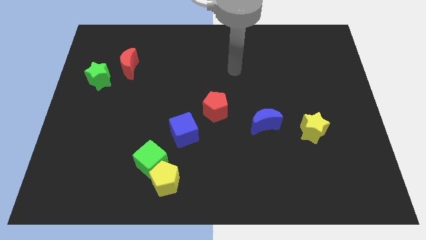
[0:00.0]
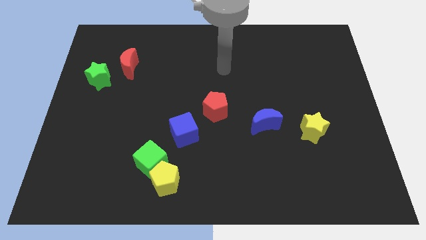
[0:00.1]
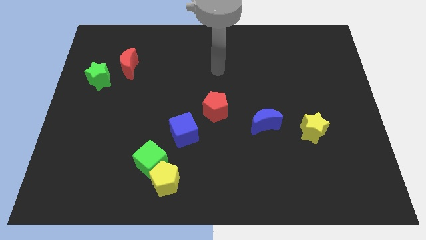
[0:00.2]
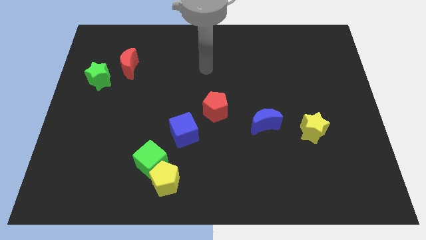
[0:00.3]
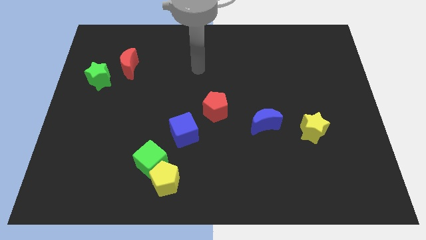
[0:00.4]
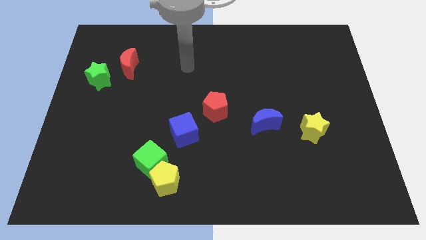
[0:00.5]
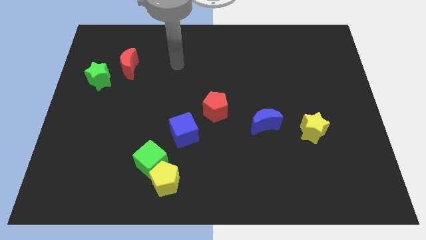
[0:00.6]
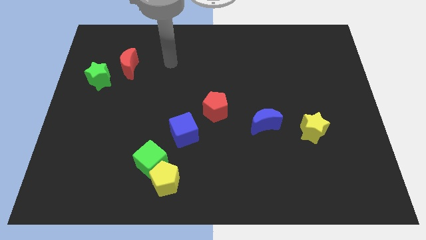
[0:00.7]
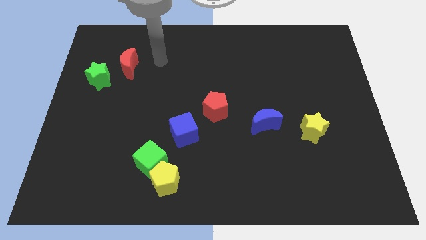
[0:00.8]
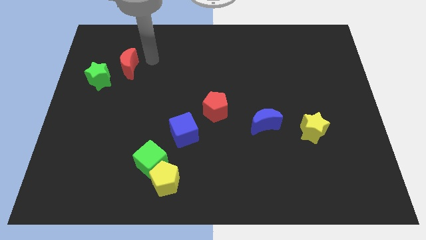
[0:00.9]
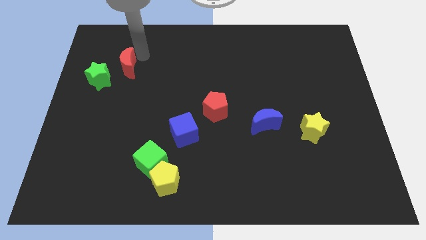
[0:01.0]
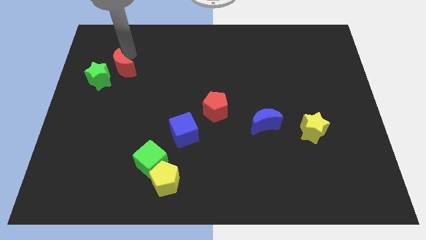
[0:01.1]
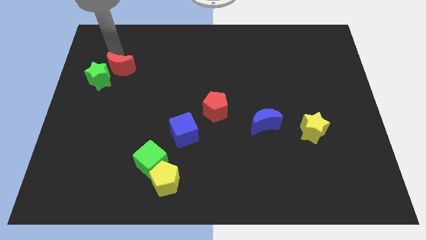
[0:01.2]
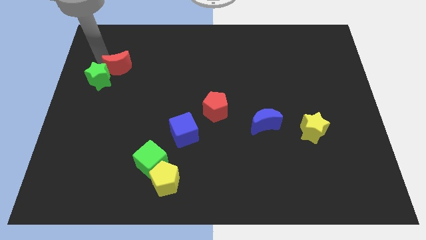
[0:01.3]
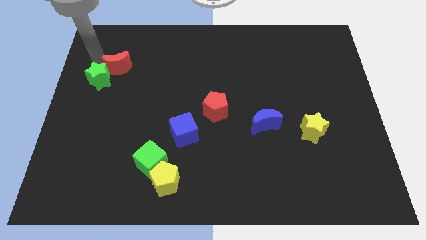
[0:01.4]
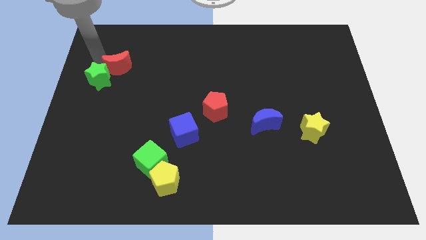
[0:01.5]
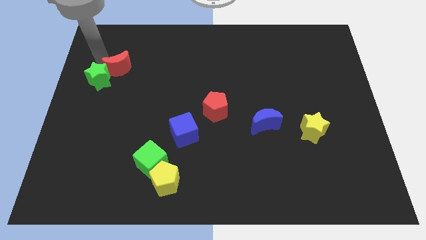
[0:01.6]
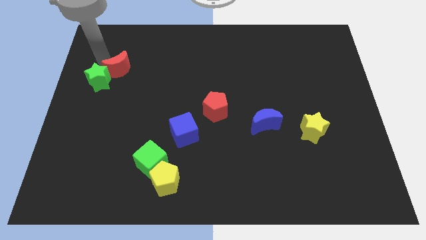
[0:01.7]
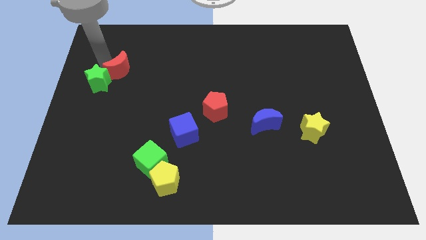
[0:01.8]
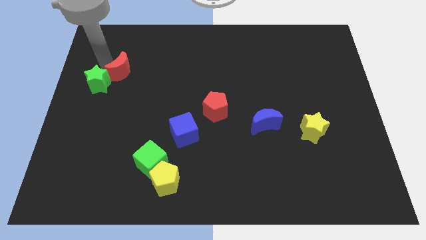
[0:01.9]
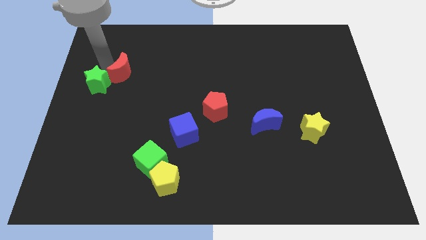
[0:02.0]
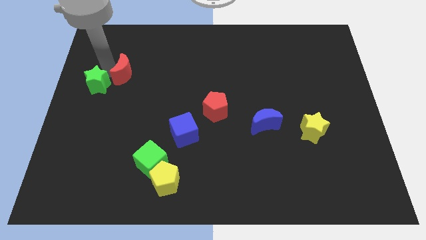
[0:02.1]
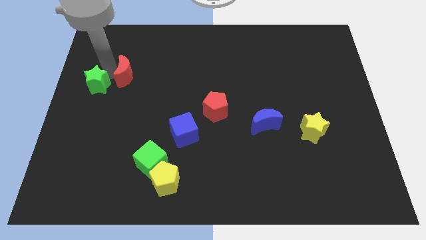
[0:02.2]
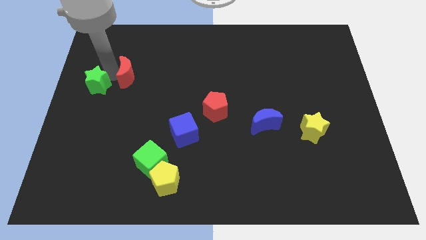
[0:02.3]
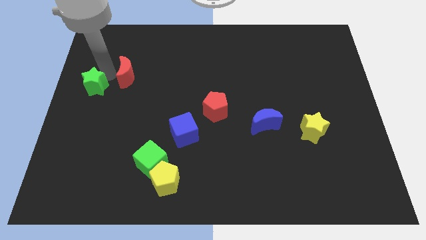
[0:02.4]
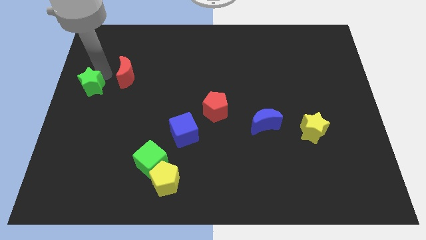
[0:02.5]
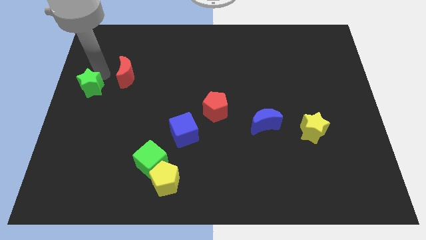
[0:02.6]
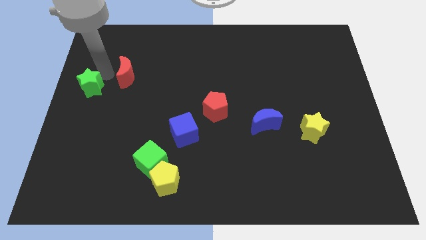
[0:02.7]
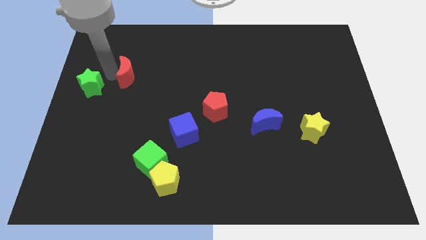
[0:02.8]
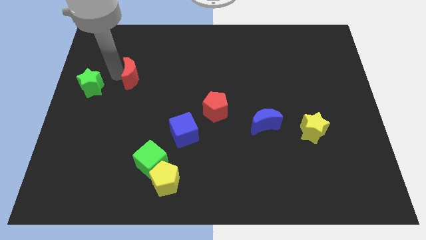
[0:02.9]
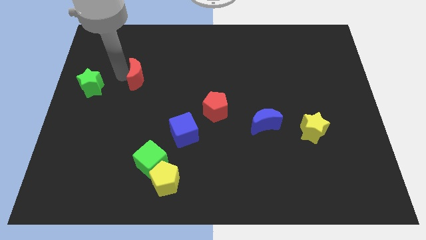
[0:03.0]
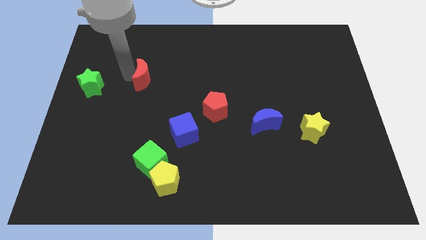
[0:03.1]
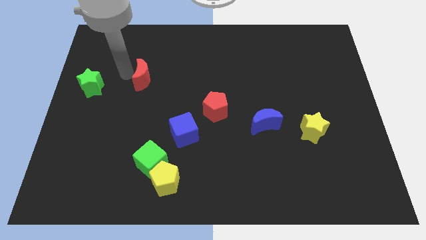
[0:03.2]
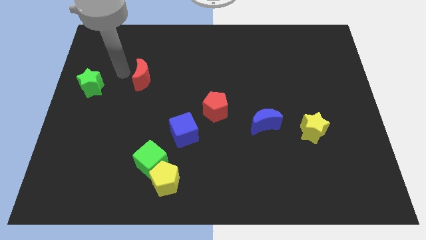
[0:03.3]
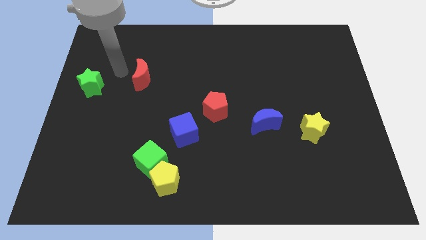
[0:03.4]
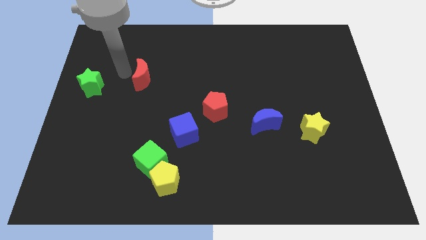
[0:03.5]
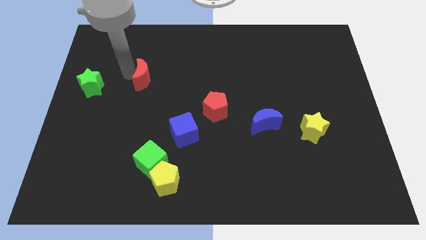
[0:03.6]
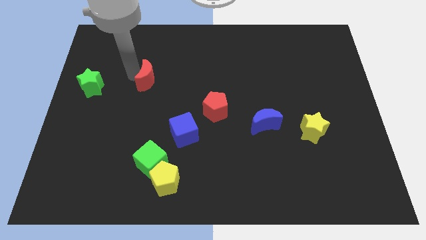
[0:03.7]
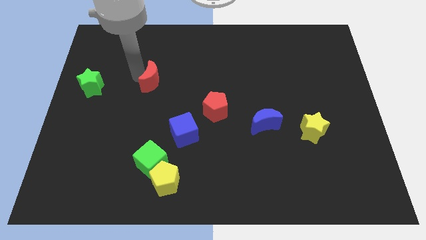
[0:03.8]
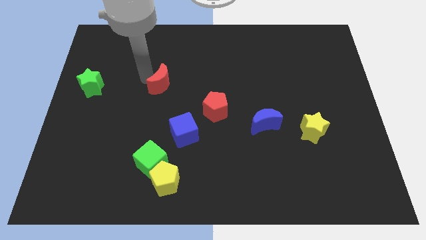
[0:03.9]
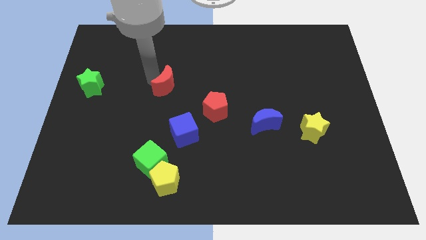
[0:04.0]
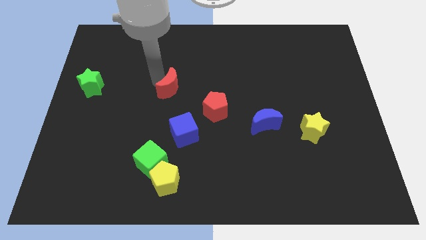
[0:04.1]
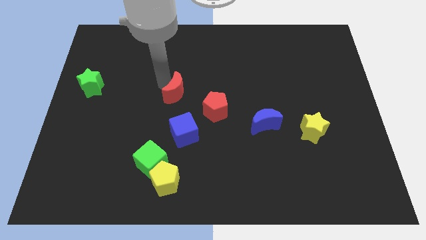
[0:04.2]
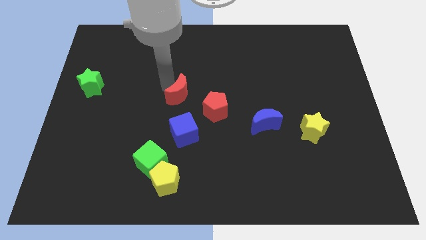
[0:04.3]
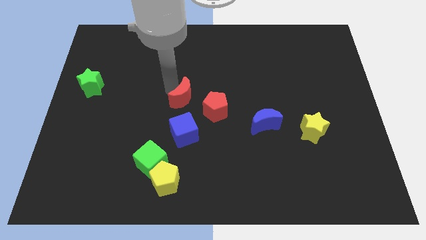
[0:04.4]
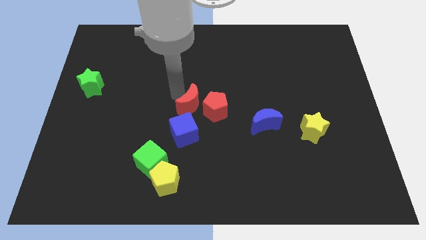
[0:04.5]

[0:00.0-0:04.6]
move the red moon close to the red pentagon
